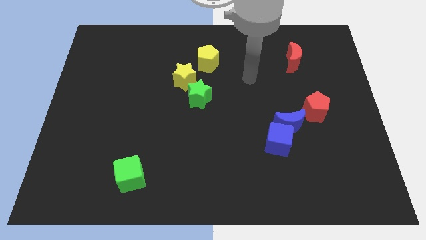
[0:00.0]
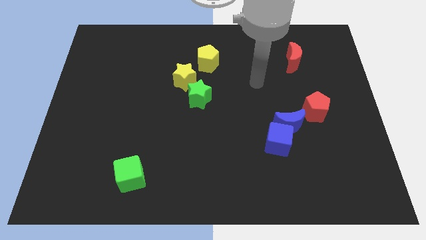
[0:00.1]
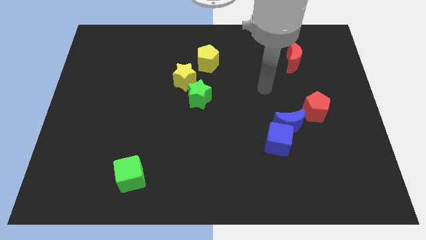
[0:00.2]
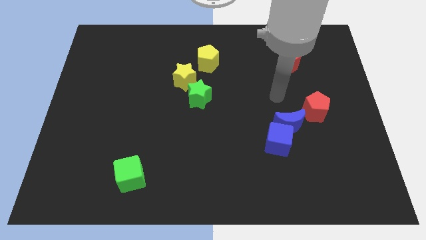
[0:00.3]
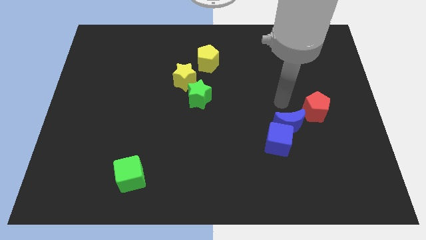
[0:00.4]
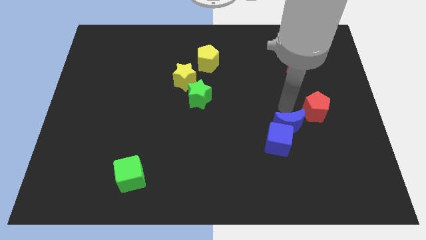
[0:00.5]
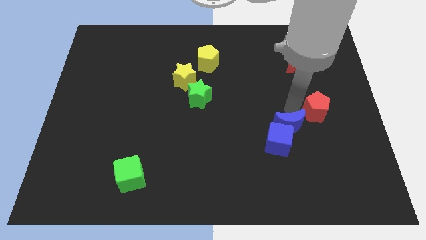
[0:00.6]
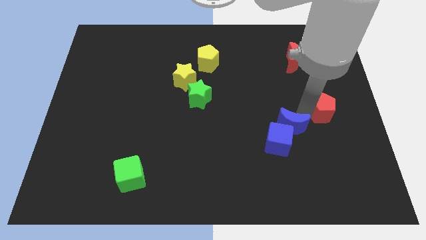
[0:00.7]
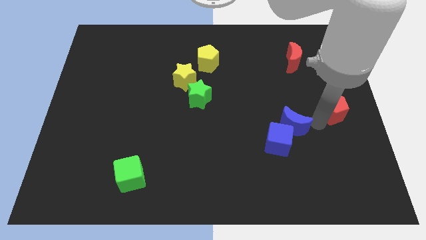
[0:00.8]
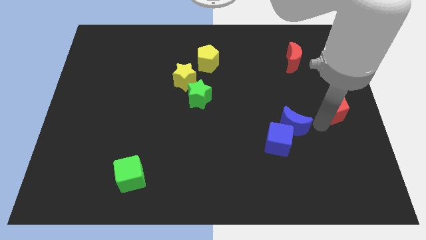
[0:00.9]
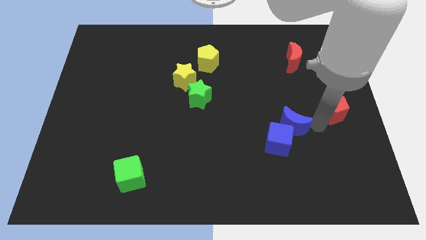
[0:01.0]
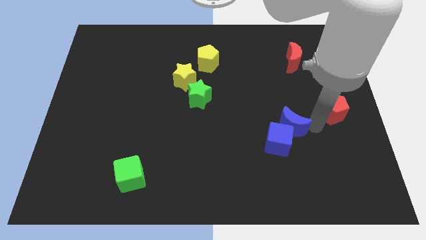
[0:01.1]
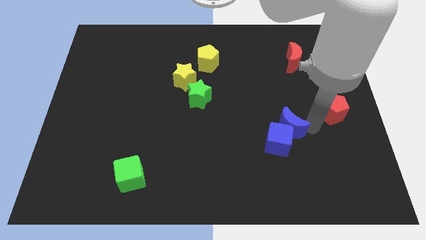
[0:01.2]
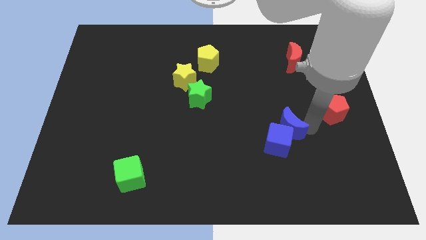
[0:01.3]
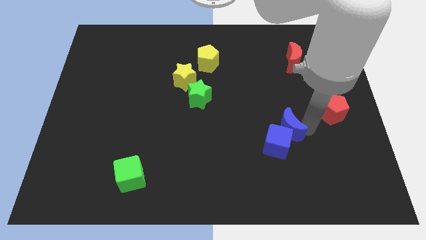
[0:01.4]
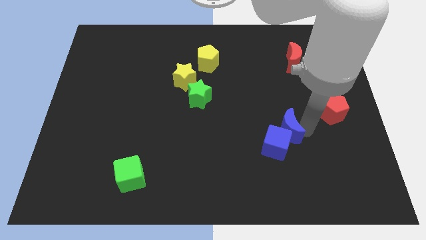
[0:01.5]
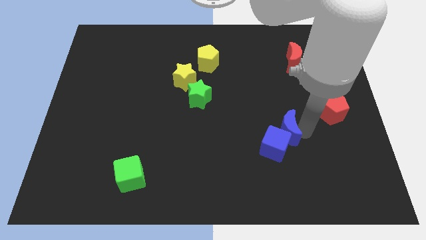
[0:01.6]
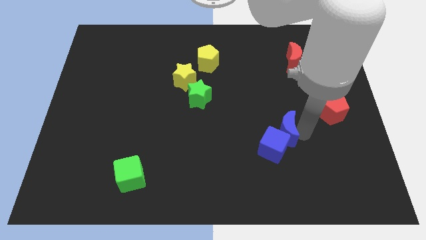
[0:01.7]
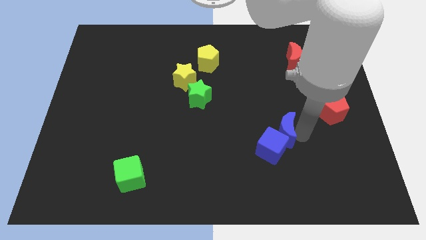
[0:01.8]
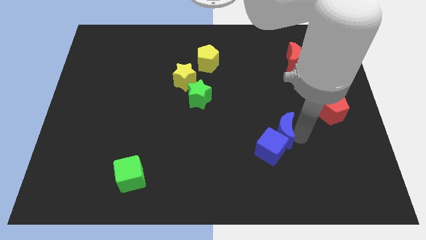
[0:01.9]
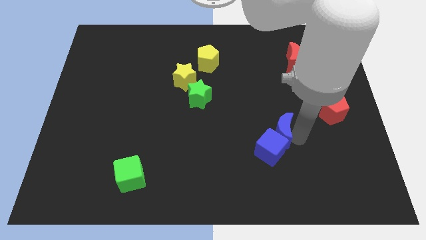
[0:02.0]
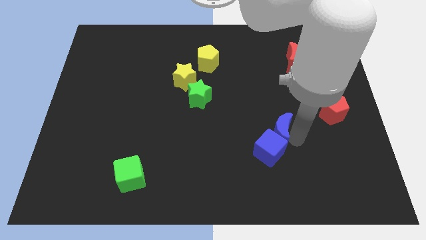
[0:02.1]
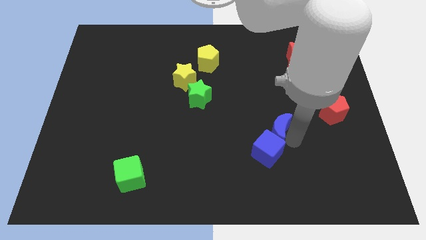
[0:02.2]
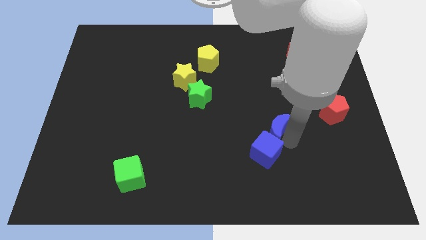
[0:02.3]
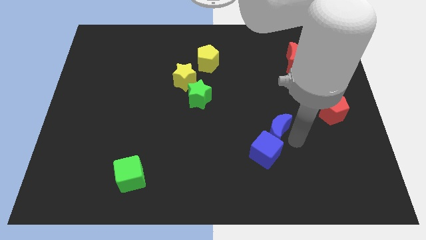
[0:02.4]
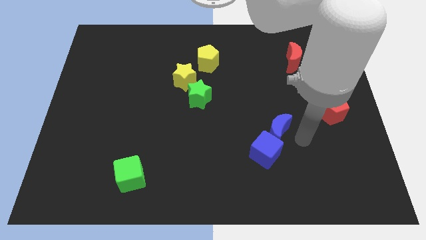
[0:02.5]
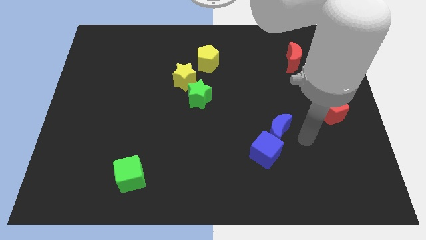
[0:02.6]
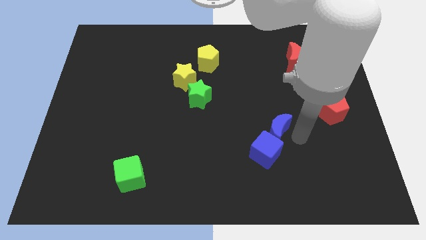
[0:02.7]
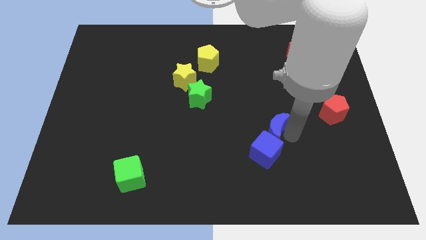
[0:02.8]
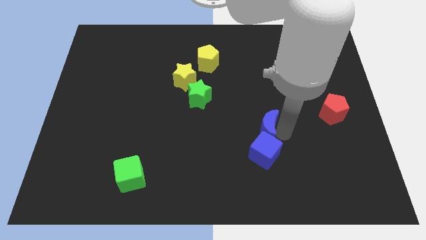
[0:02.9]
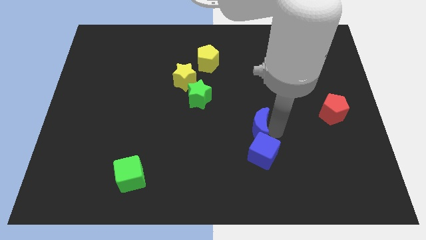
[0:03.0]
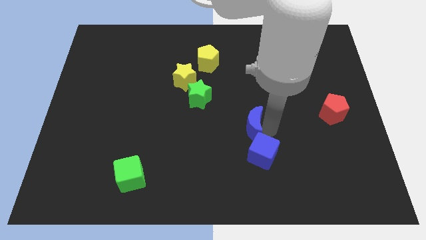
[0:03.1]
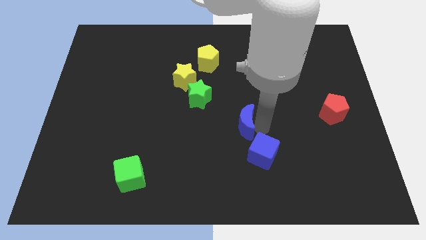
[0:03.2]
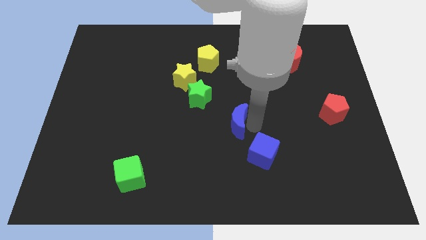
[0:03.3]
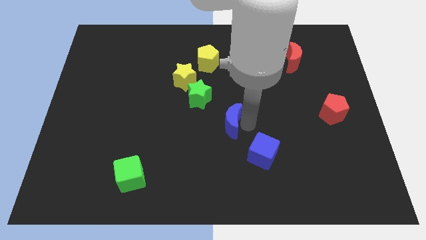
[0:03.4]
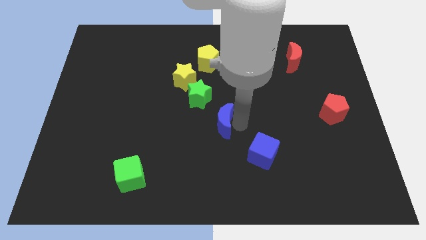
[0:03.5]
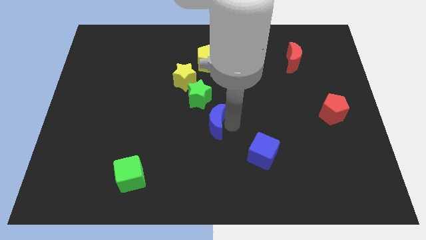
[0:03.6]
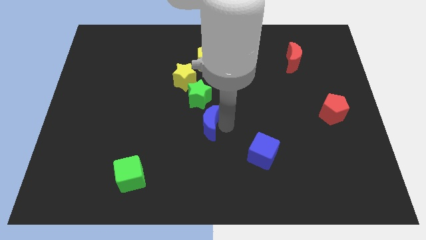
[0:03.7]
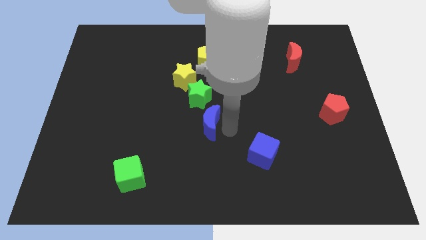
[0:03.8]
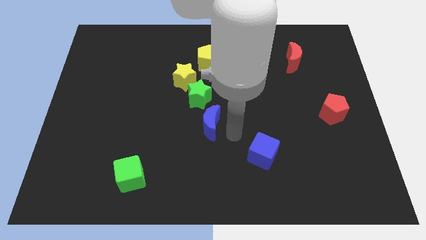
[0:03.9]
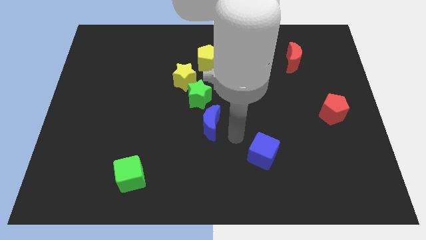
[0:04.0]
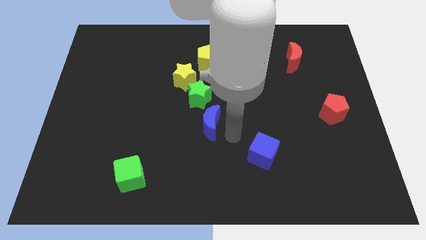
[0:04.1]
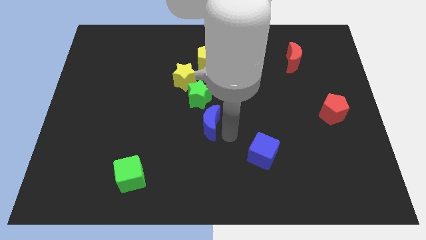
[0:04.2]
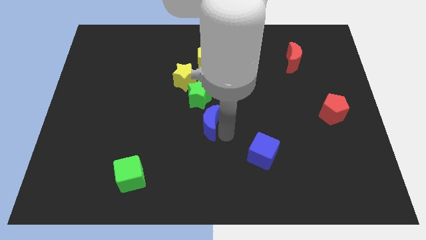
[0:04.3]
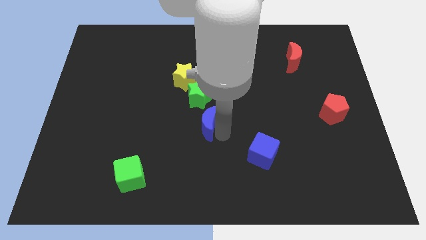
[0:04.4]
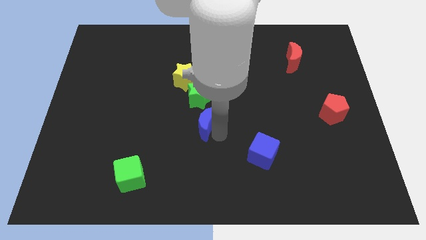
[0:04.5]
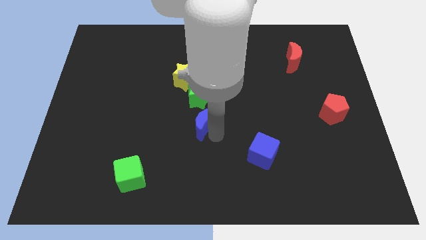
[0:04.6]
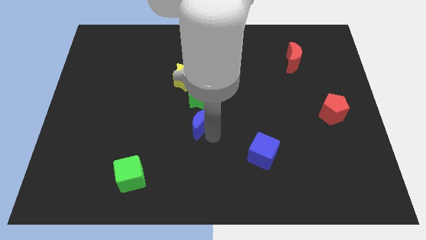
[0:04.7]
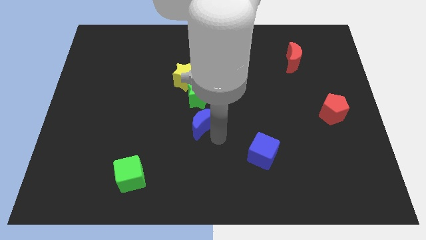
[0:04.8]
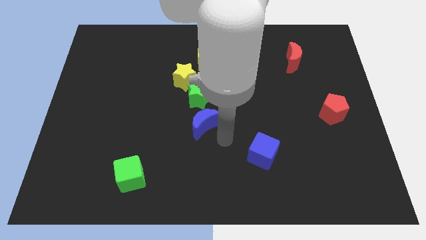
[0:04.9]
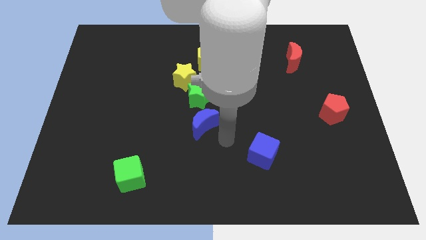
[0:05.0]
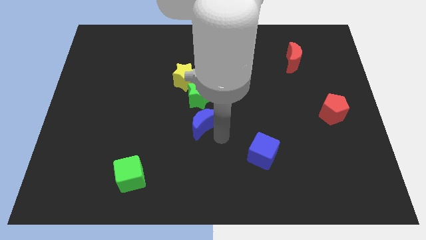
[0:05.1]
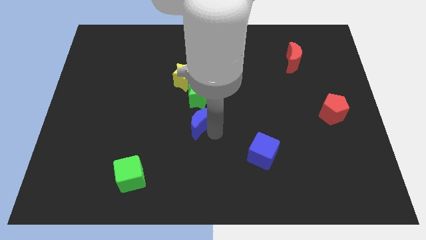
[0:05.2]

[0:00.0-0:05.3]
put the blue moon to the bottom side of the yellow star
